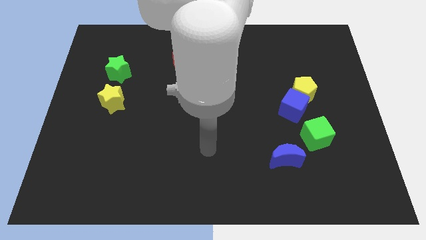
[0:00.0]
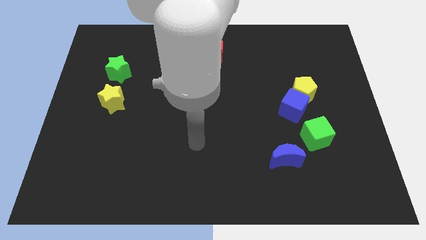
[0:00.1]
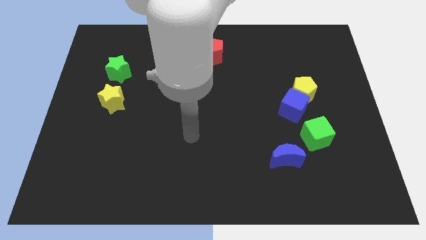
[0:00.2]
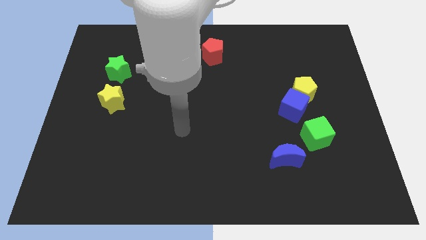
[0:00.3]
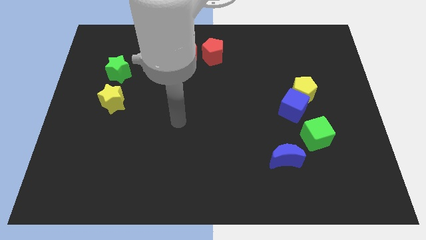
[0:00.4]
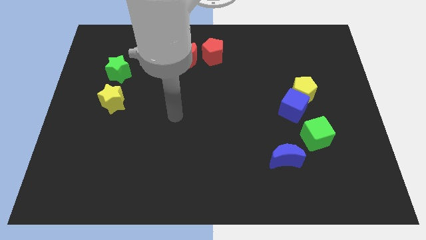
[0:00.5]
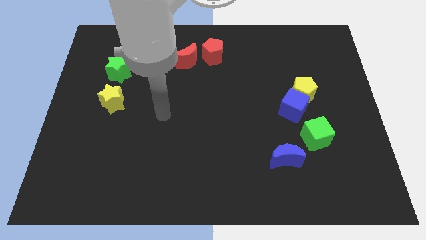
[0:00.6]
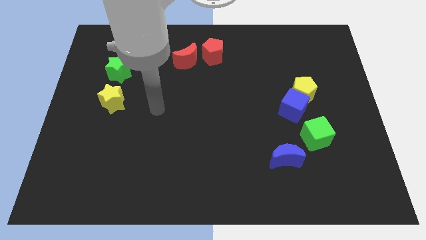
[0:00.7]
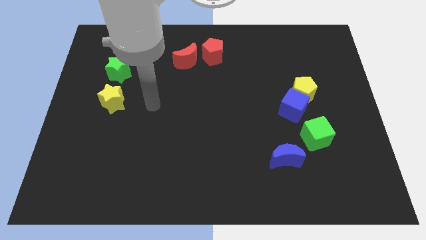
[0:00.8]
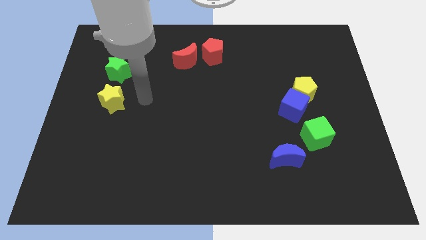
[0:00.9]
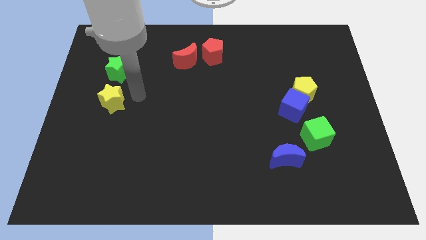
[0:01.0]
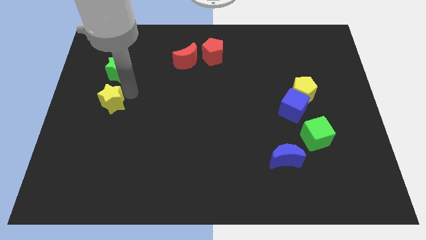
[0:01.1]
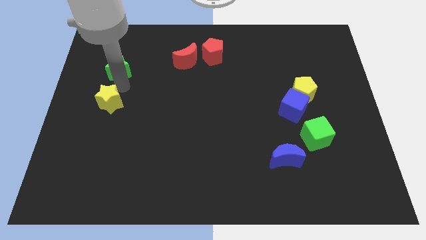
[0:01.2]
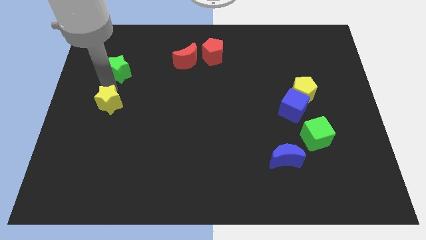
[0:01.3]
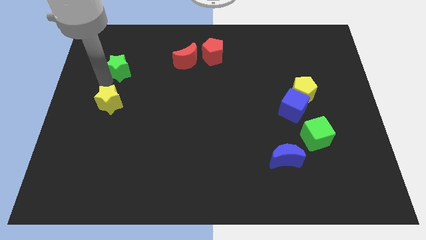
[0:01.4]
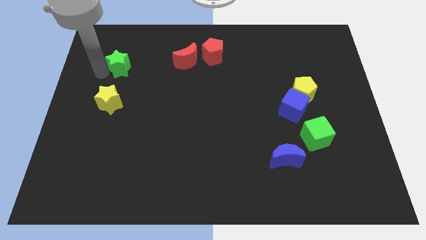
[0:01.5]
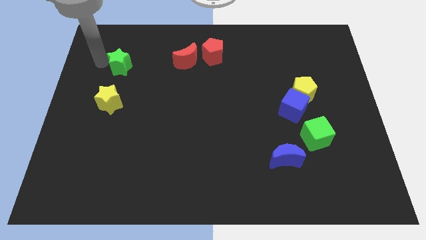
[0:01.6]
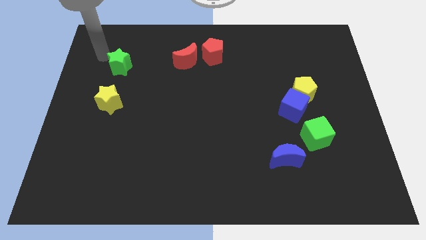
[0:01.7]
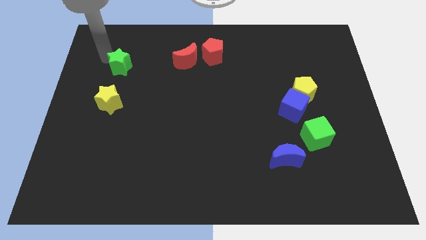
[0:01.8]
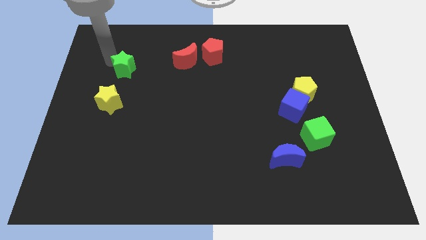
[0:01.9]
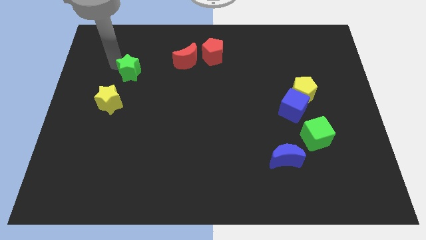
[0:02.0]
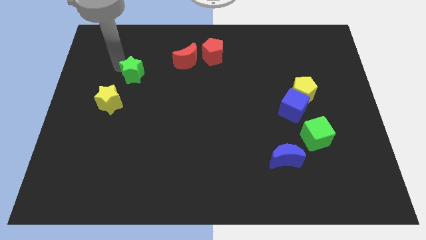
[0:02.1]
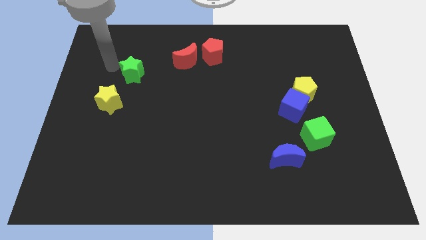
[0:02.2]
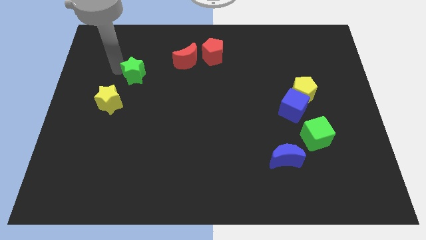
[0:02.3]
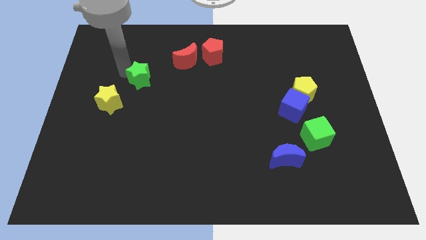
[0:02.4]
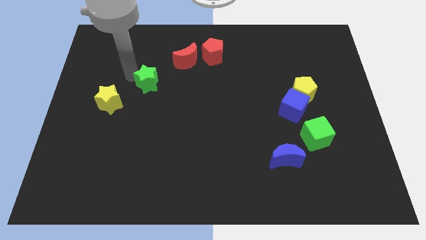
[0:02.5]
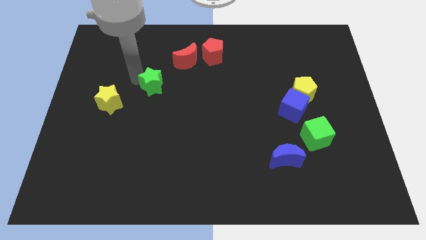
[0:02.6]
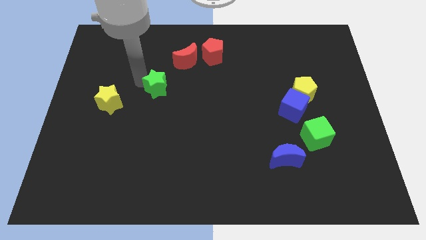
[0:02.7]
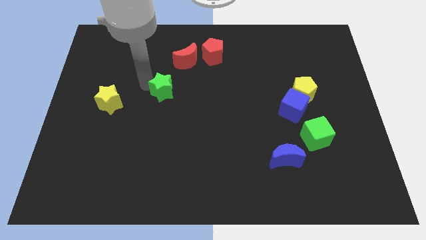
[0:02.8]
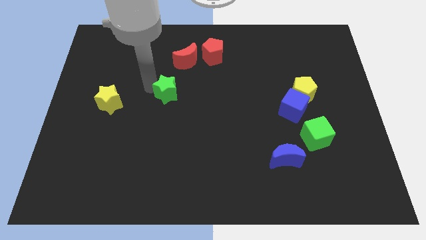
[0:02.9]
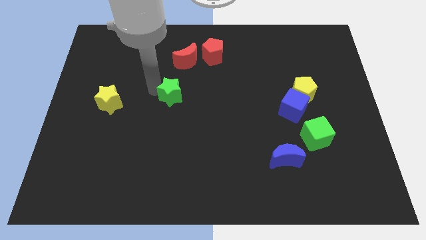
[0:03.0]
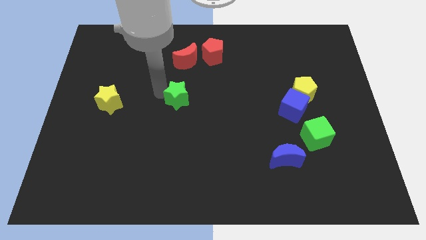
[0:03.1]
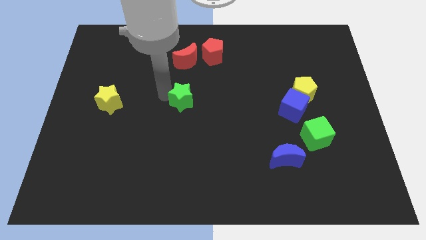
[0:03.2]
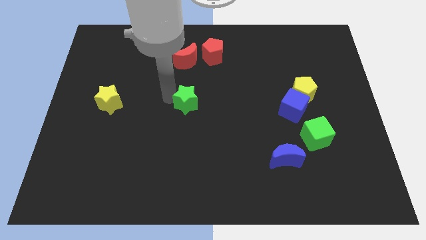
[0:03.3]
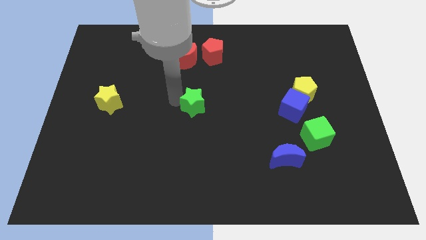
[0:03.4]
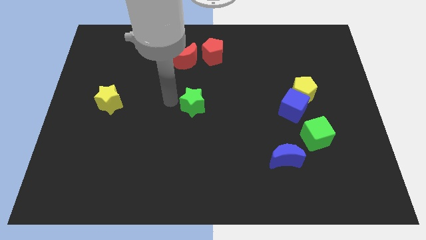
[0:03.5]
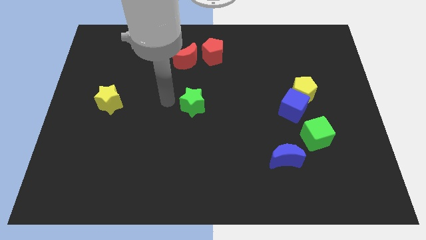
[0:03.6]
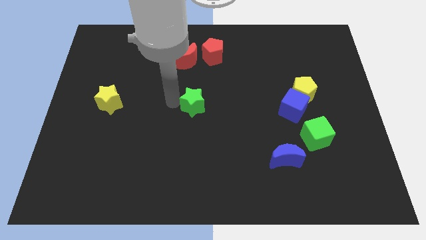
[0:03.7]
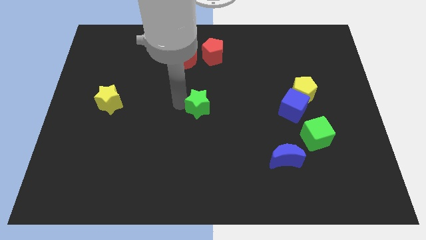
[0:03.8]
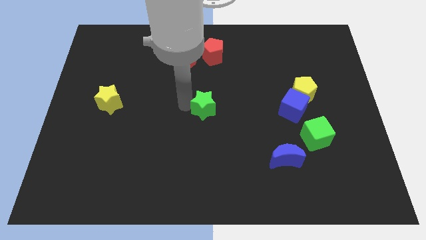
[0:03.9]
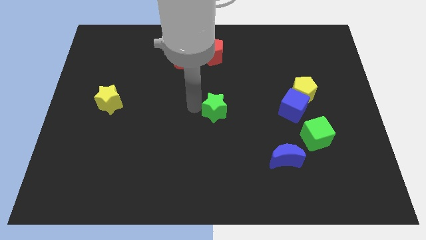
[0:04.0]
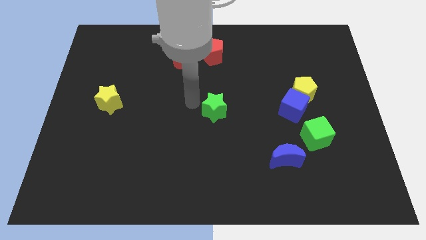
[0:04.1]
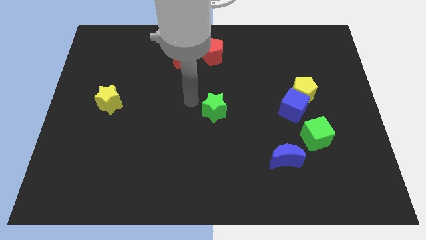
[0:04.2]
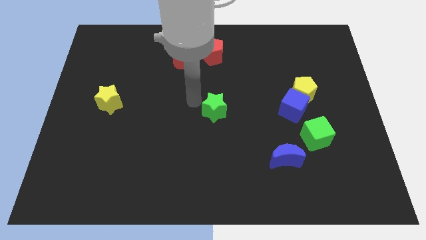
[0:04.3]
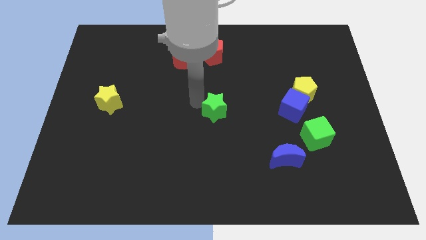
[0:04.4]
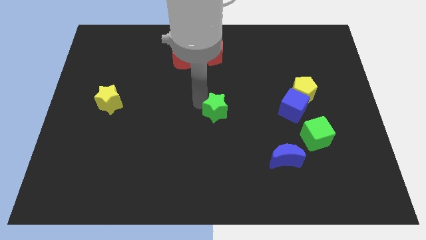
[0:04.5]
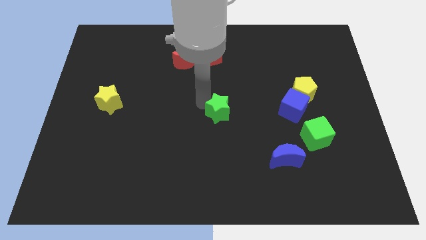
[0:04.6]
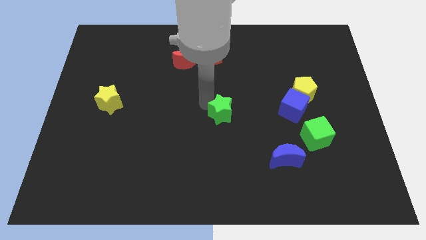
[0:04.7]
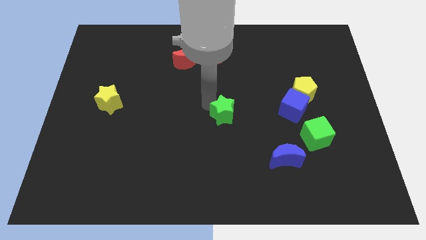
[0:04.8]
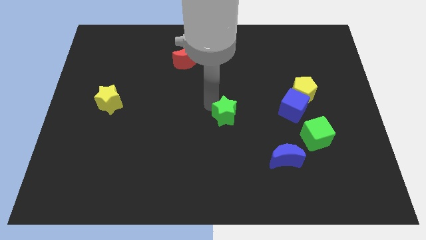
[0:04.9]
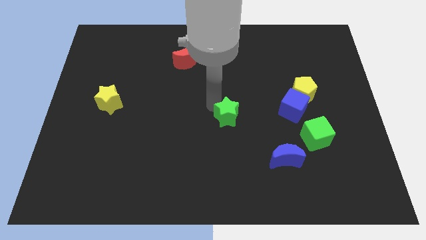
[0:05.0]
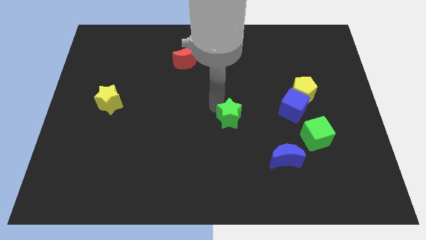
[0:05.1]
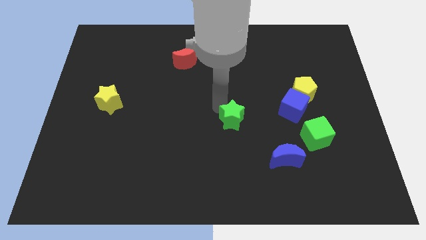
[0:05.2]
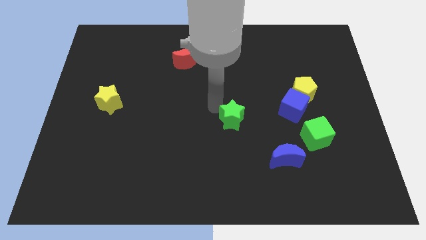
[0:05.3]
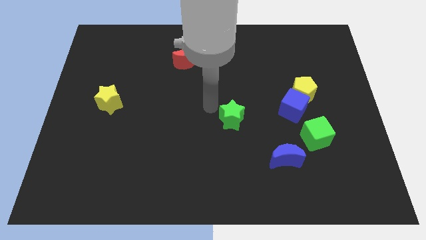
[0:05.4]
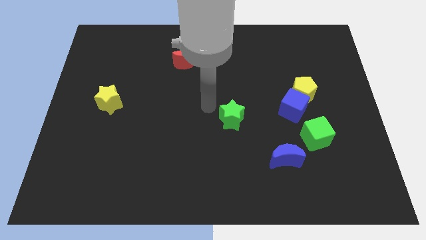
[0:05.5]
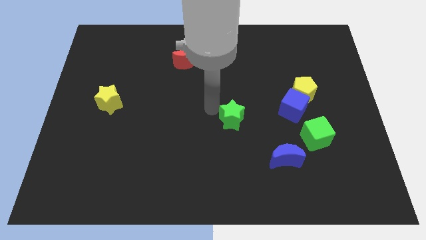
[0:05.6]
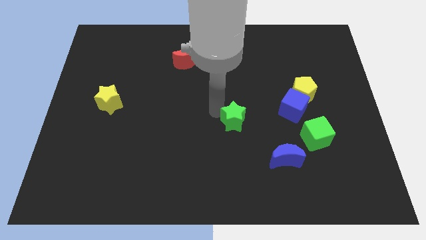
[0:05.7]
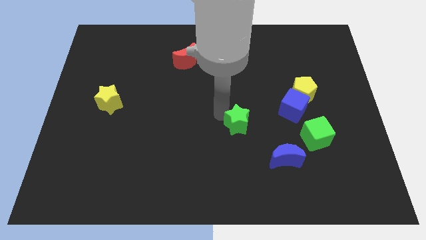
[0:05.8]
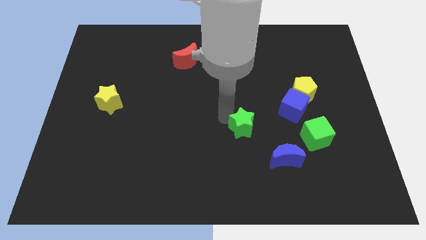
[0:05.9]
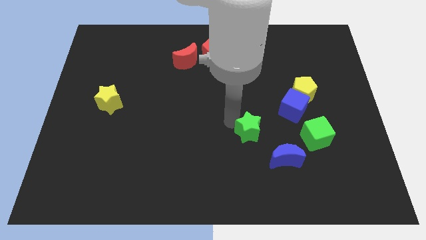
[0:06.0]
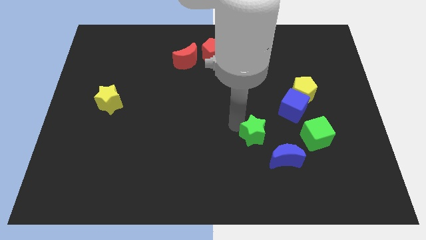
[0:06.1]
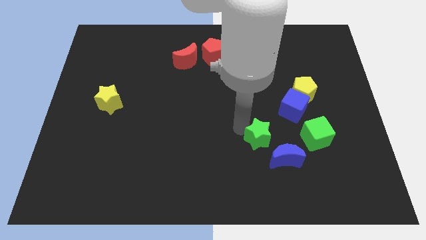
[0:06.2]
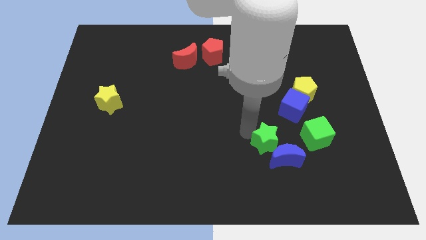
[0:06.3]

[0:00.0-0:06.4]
move the green star close to the blue moon

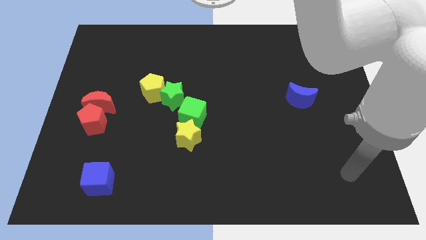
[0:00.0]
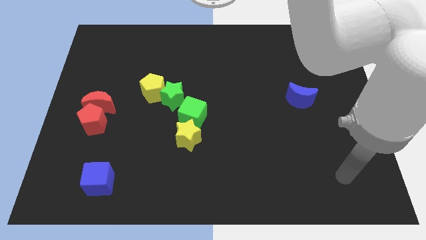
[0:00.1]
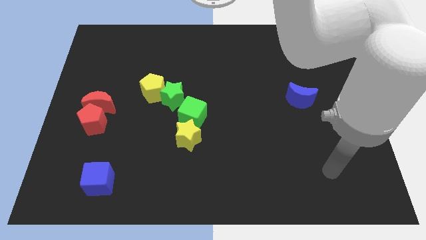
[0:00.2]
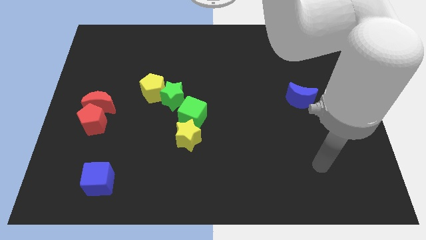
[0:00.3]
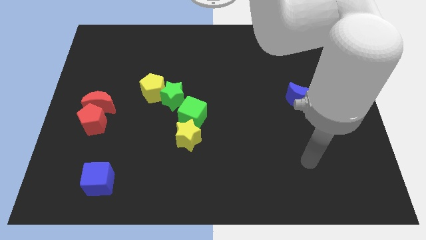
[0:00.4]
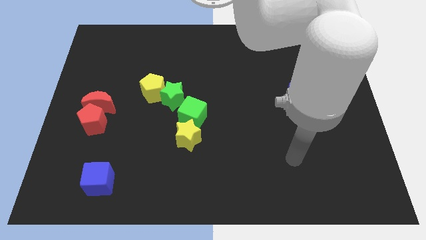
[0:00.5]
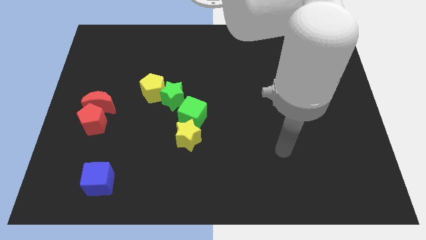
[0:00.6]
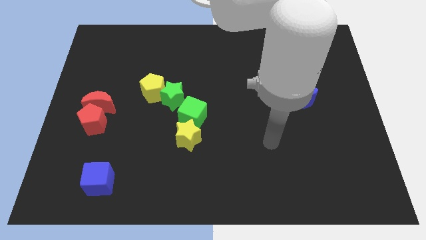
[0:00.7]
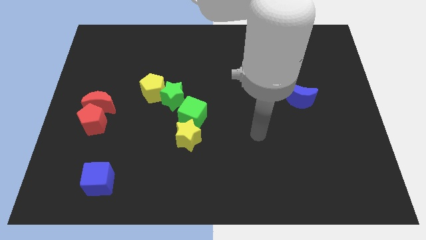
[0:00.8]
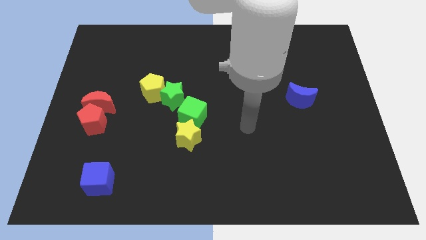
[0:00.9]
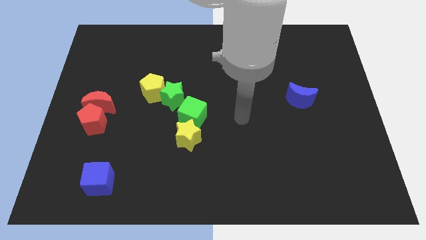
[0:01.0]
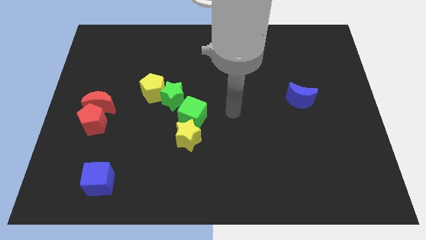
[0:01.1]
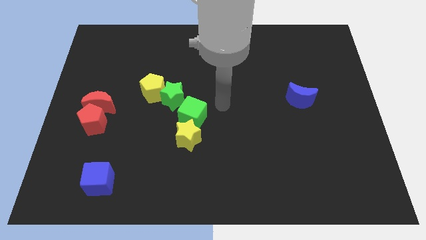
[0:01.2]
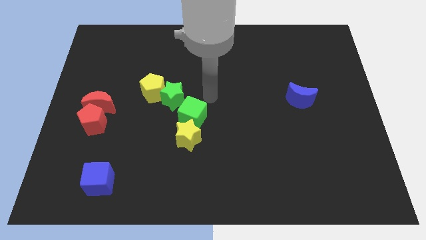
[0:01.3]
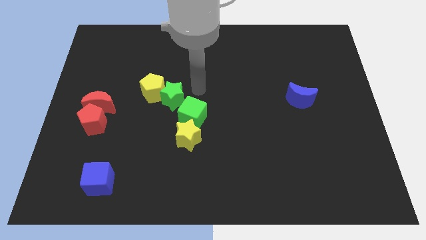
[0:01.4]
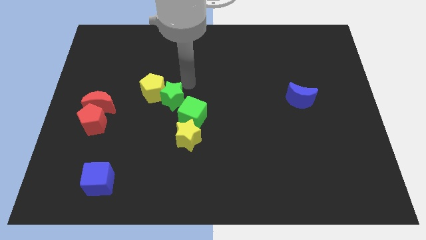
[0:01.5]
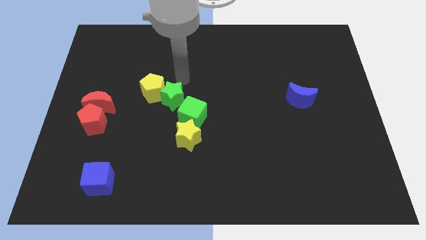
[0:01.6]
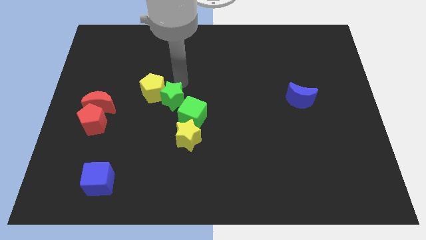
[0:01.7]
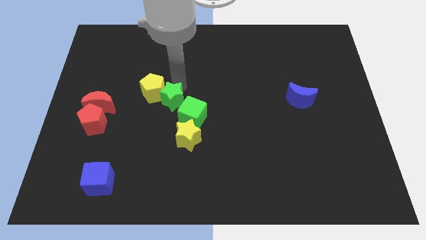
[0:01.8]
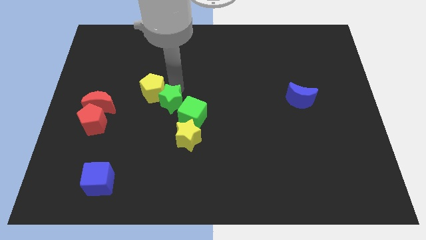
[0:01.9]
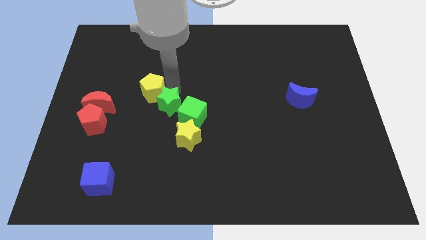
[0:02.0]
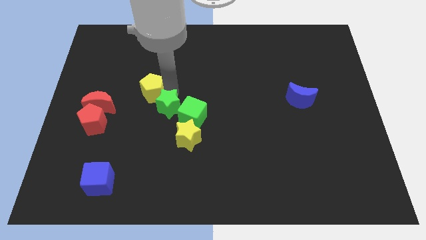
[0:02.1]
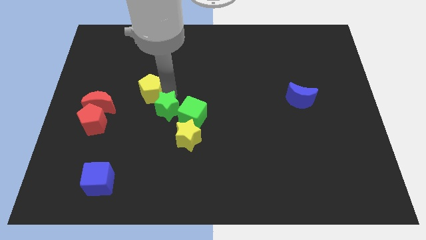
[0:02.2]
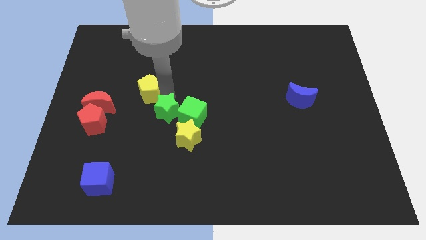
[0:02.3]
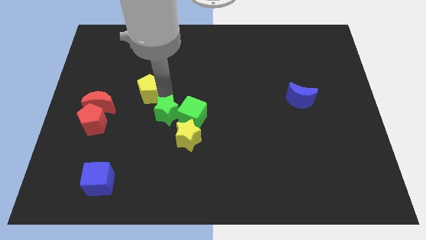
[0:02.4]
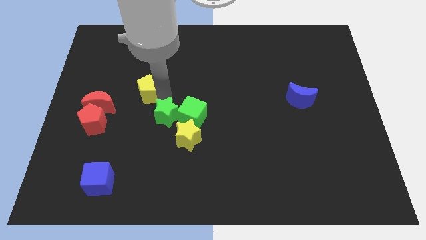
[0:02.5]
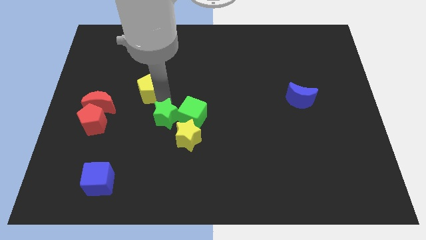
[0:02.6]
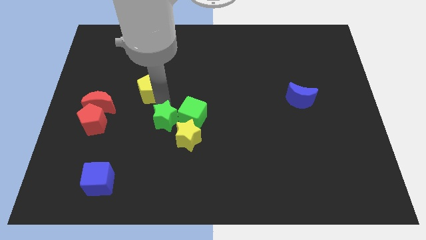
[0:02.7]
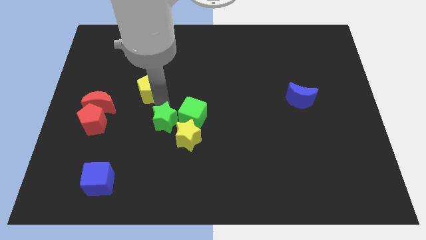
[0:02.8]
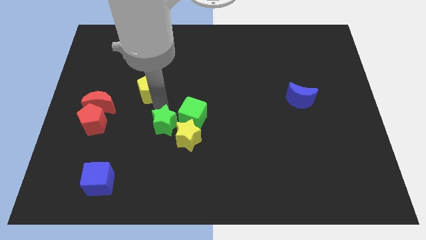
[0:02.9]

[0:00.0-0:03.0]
slide the green star to the yellow star
